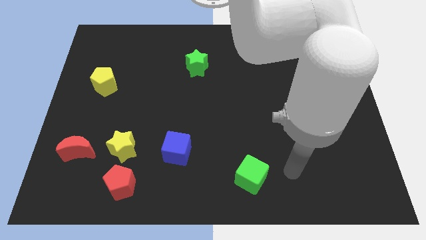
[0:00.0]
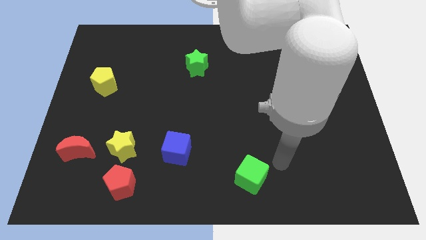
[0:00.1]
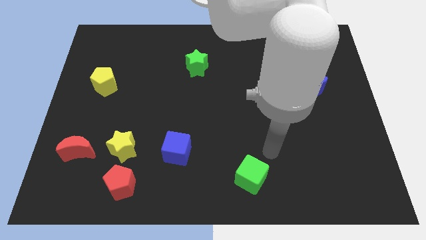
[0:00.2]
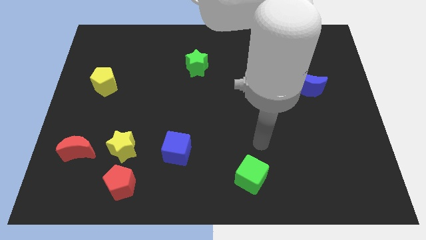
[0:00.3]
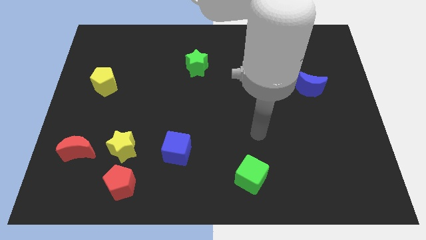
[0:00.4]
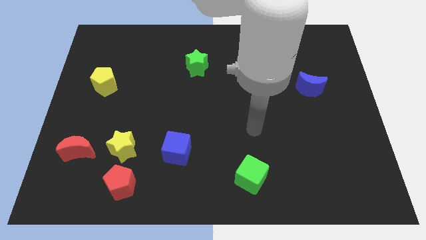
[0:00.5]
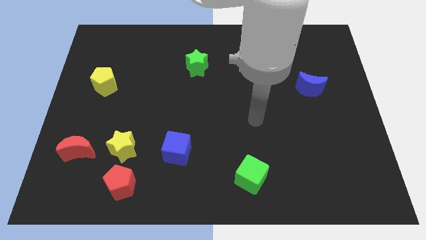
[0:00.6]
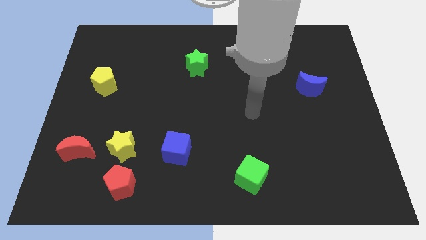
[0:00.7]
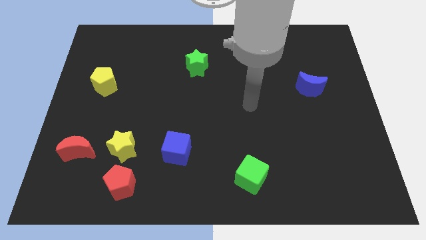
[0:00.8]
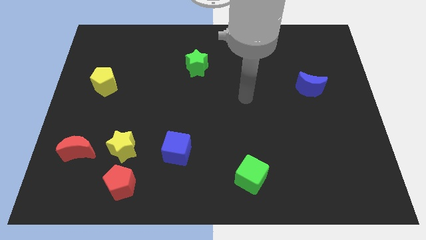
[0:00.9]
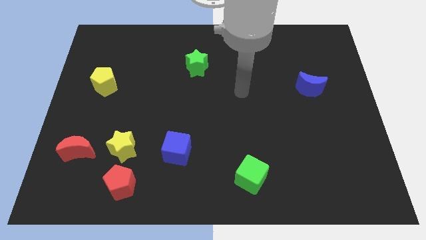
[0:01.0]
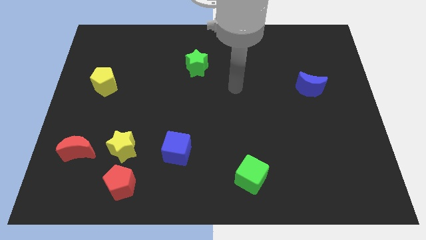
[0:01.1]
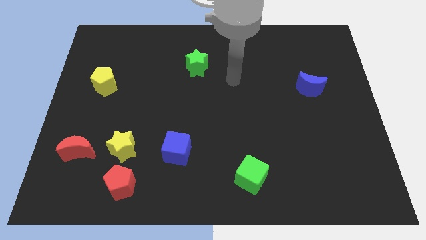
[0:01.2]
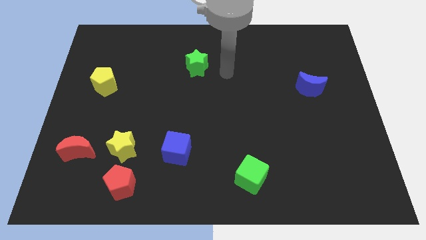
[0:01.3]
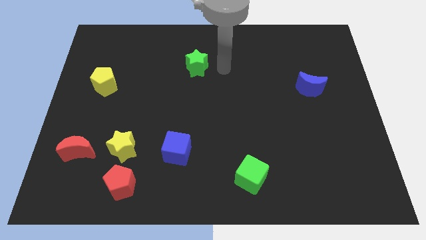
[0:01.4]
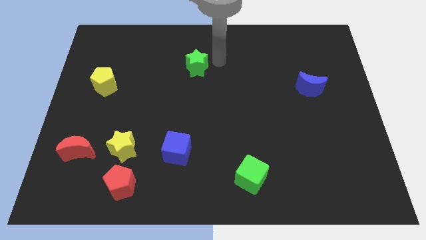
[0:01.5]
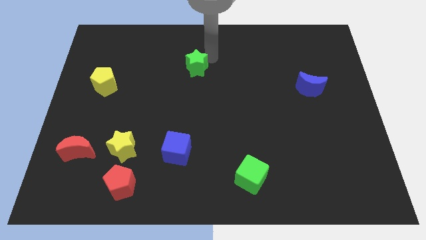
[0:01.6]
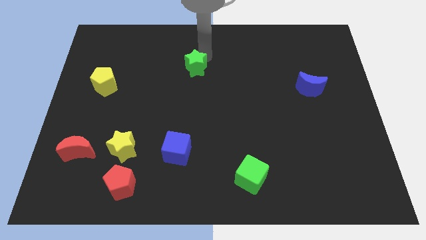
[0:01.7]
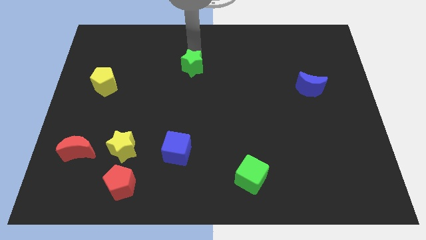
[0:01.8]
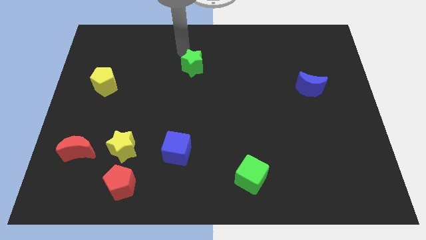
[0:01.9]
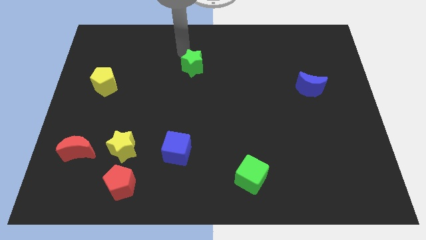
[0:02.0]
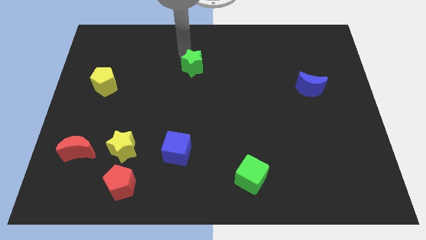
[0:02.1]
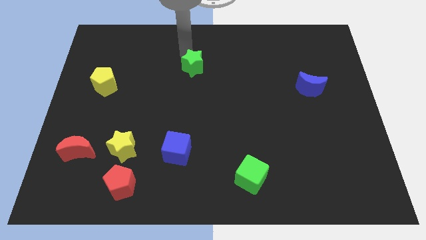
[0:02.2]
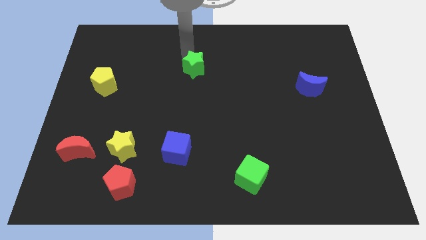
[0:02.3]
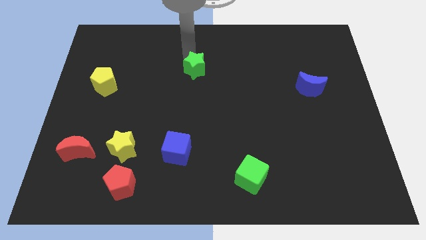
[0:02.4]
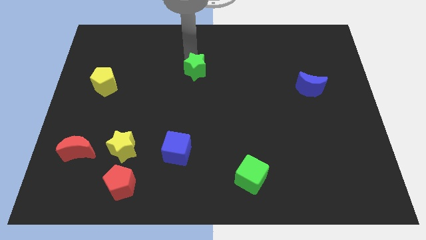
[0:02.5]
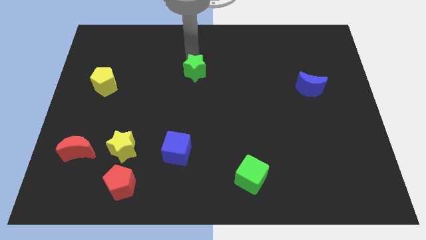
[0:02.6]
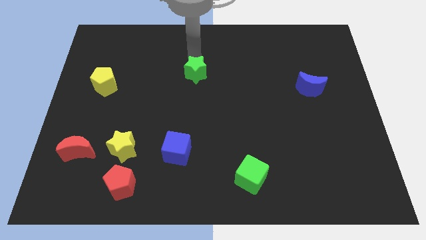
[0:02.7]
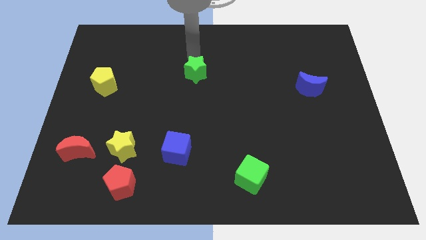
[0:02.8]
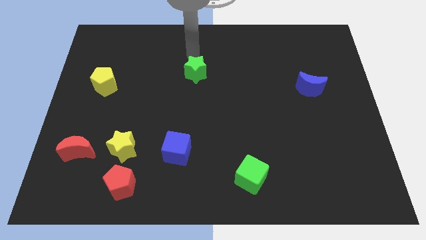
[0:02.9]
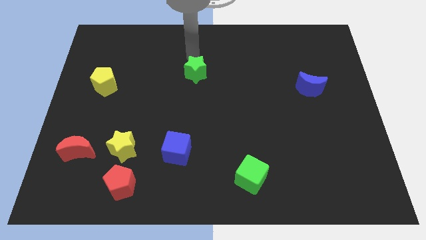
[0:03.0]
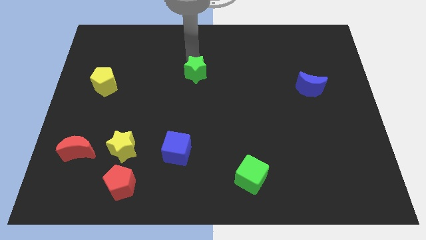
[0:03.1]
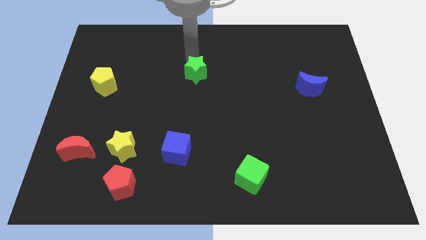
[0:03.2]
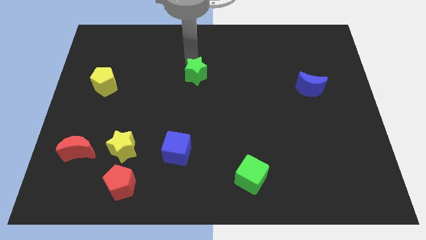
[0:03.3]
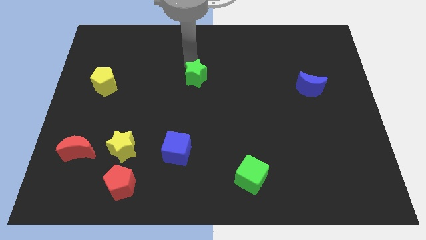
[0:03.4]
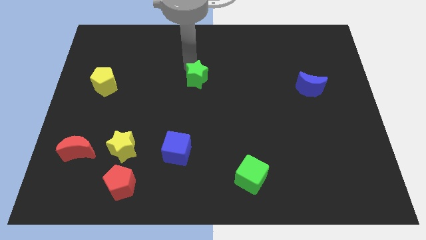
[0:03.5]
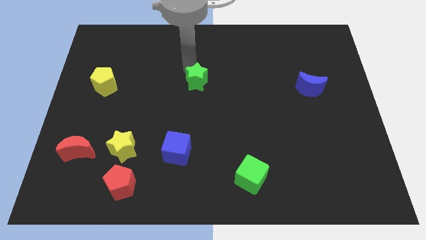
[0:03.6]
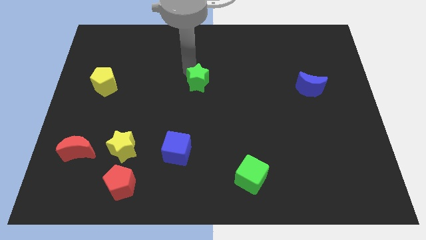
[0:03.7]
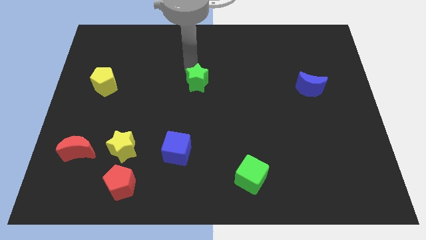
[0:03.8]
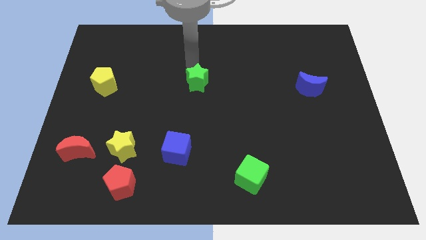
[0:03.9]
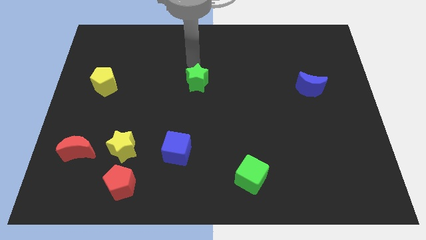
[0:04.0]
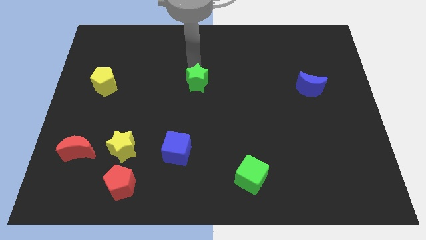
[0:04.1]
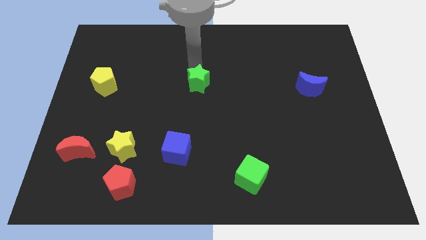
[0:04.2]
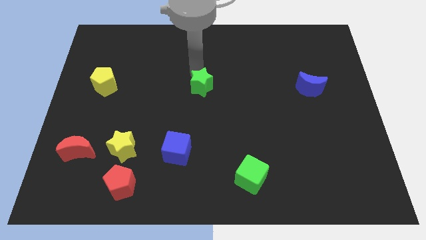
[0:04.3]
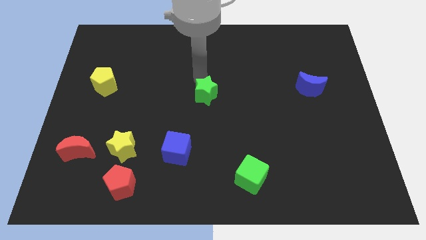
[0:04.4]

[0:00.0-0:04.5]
slide the green star a little downwards

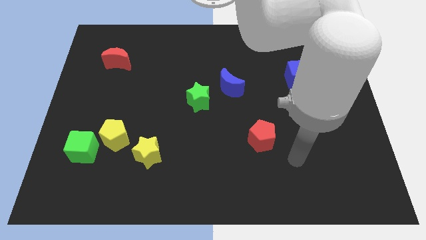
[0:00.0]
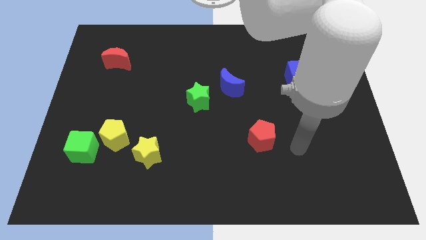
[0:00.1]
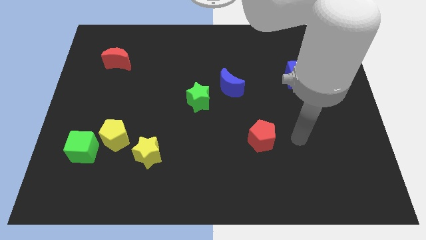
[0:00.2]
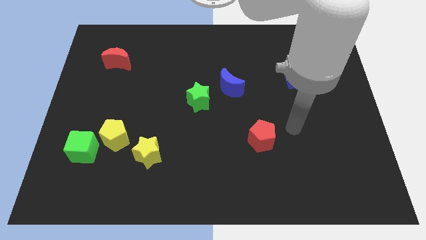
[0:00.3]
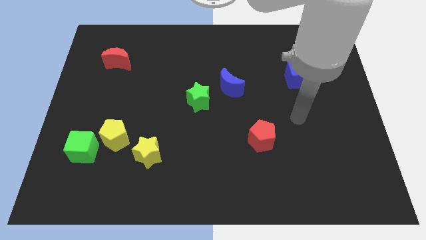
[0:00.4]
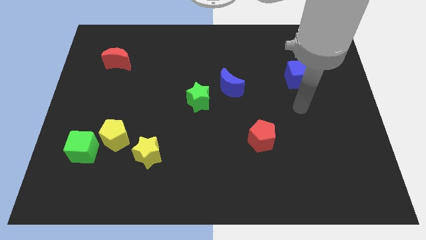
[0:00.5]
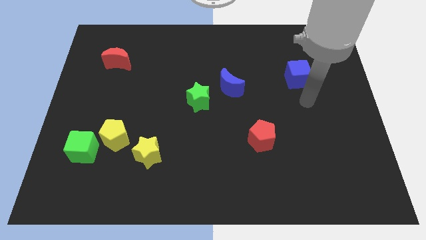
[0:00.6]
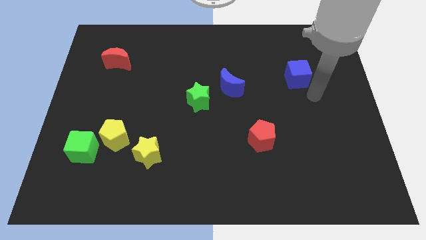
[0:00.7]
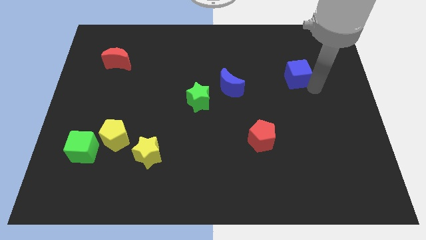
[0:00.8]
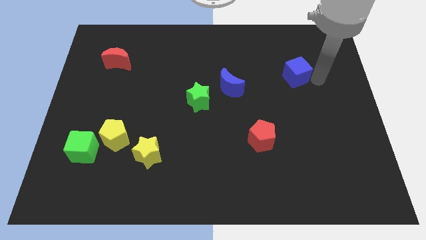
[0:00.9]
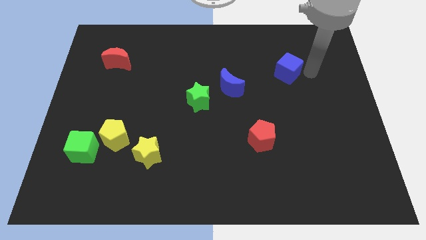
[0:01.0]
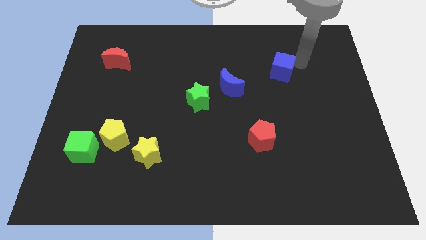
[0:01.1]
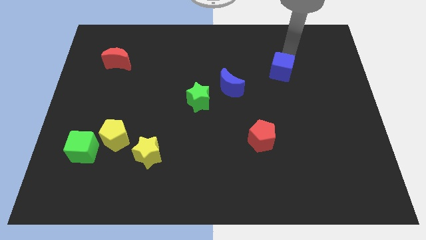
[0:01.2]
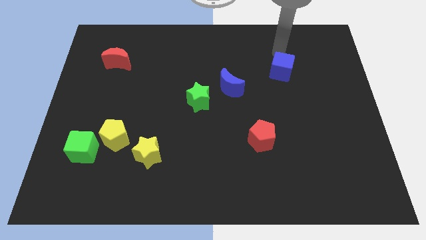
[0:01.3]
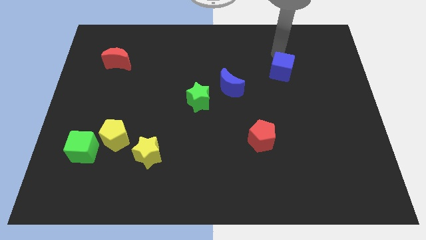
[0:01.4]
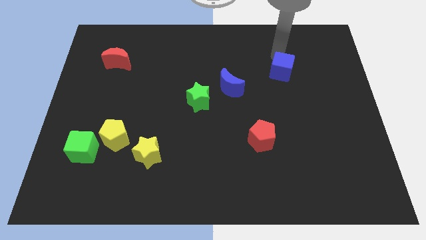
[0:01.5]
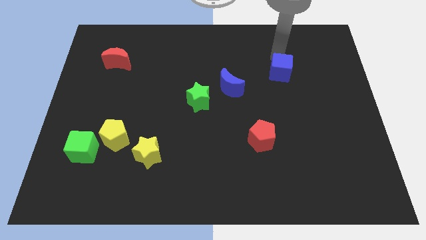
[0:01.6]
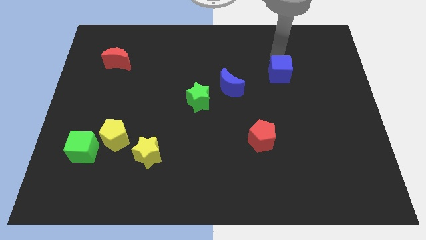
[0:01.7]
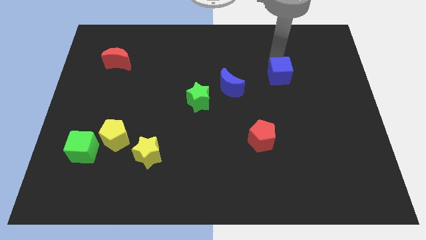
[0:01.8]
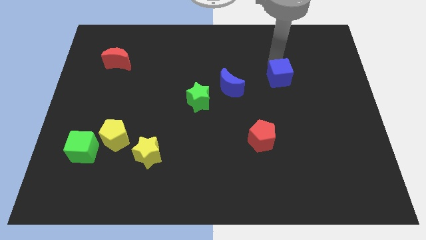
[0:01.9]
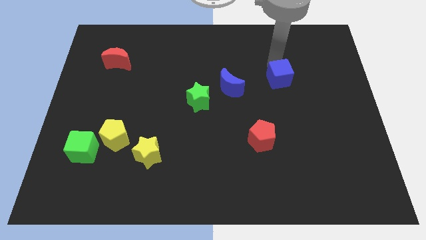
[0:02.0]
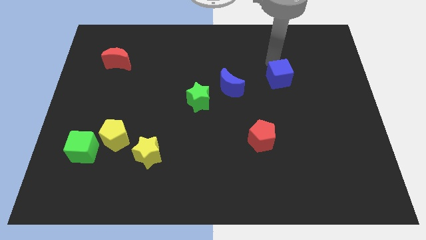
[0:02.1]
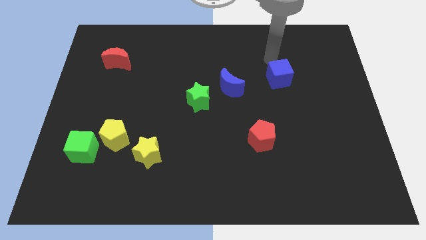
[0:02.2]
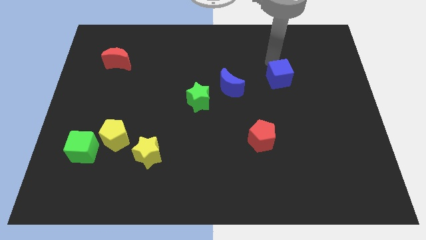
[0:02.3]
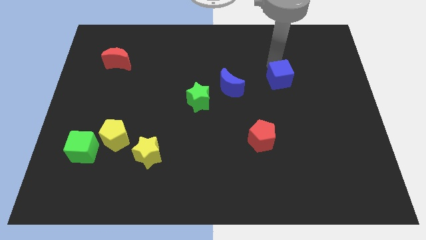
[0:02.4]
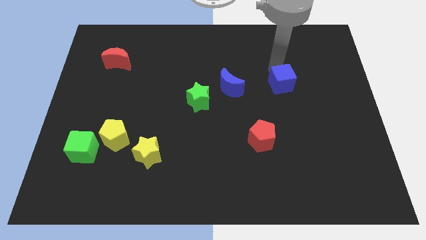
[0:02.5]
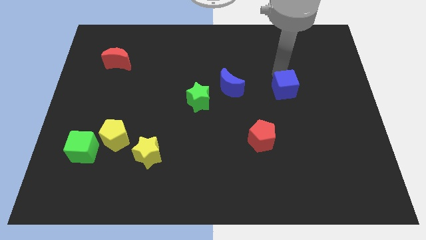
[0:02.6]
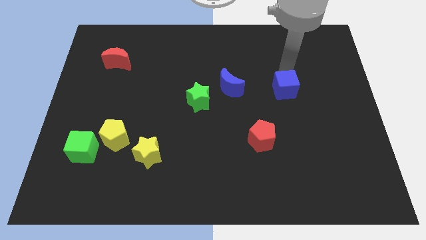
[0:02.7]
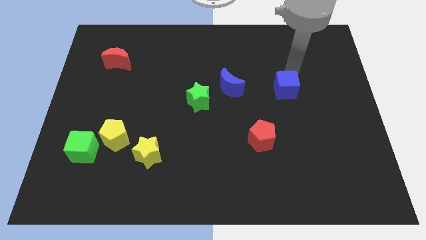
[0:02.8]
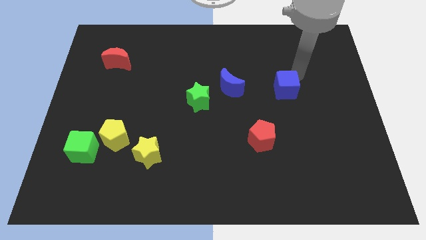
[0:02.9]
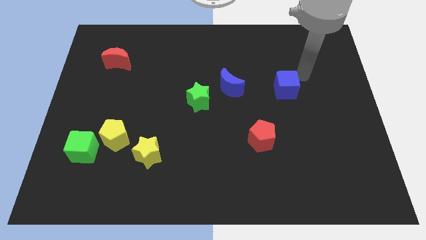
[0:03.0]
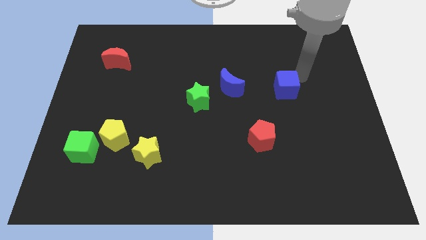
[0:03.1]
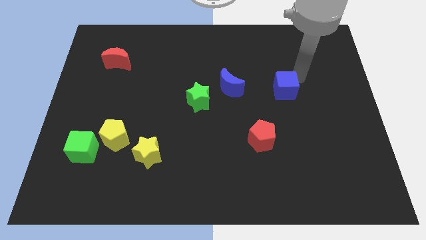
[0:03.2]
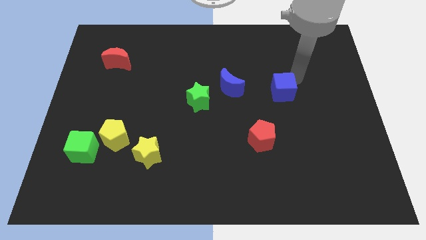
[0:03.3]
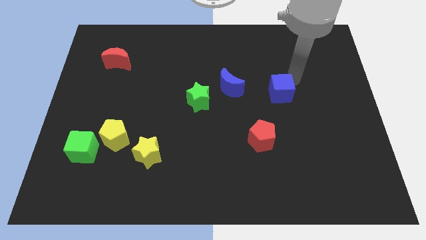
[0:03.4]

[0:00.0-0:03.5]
slightly push the blue cube downwards and to the left

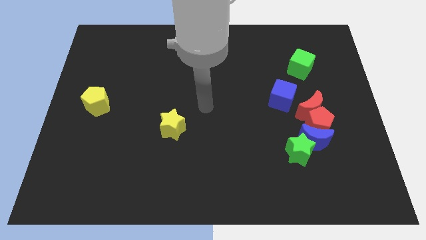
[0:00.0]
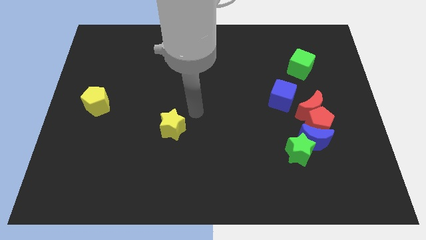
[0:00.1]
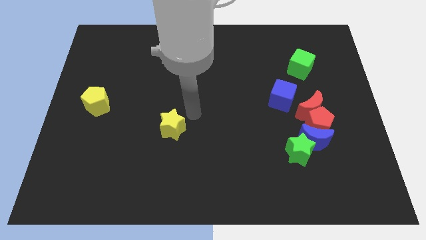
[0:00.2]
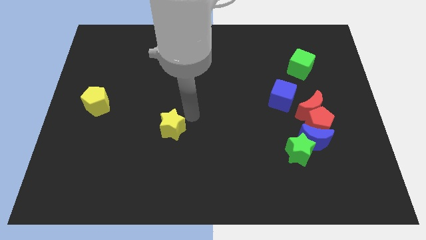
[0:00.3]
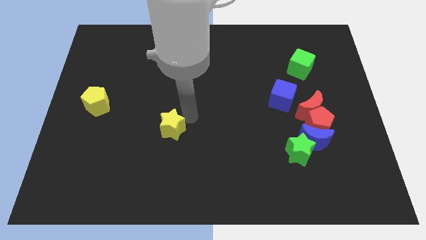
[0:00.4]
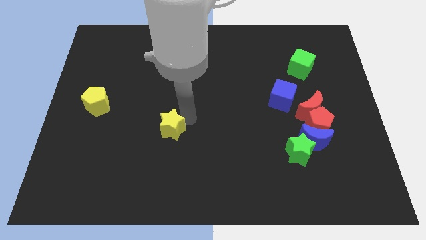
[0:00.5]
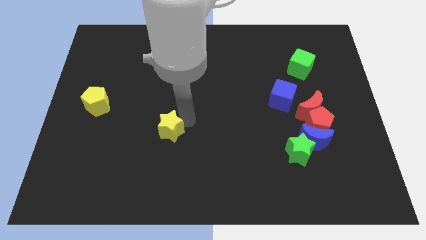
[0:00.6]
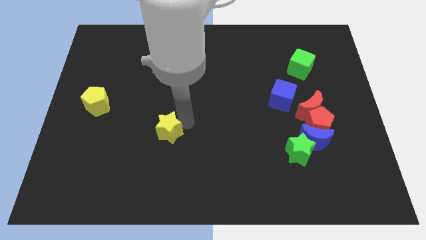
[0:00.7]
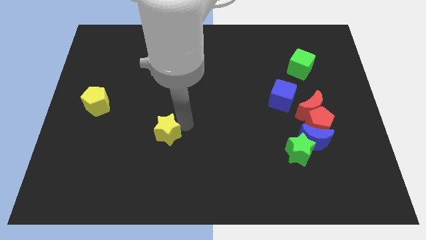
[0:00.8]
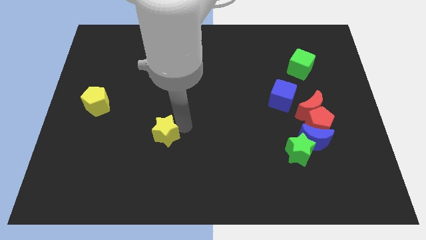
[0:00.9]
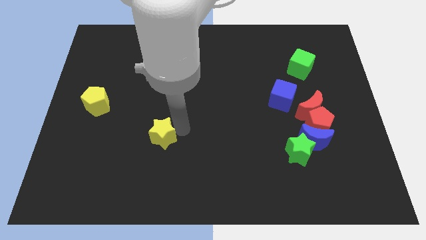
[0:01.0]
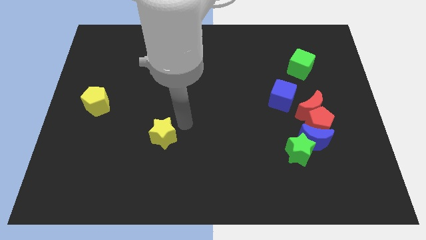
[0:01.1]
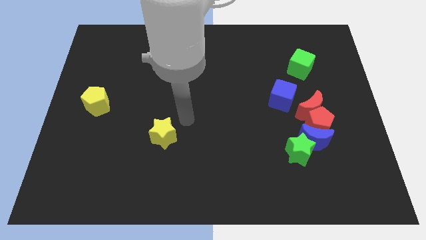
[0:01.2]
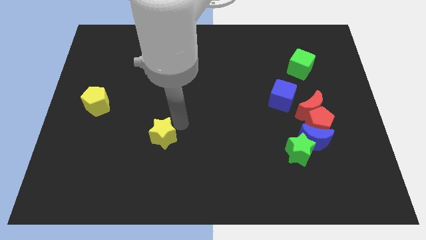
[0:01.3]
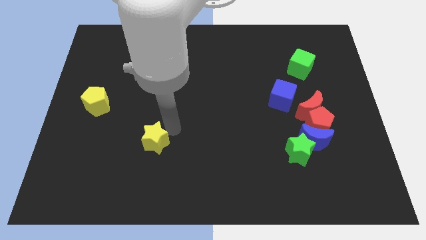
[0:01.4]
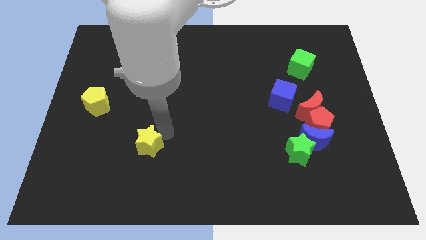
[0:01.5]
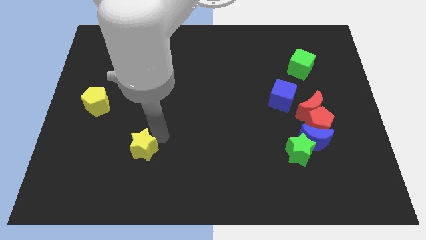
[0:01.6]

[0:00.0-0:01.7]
slightly move the yellow star downwards and to the left diagonally
